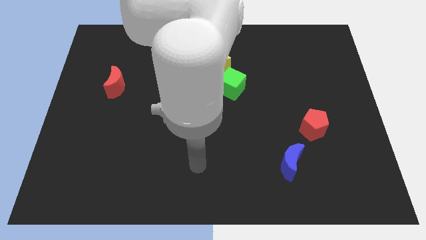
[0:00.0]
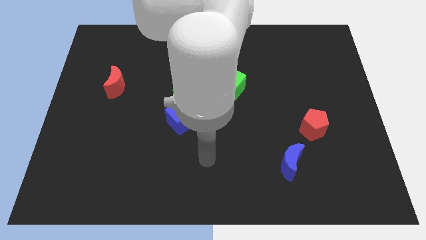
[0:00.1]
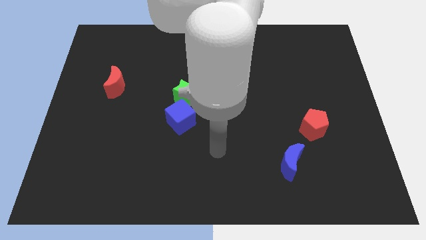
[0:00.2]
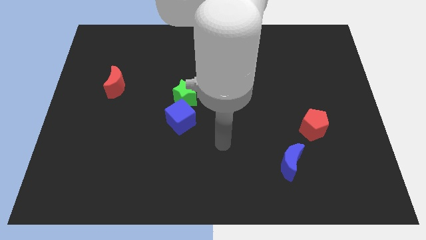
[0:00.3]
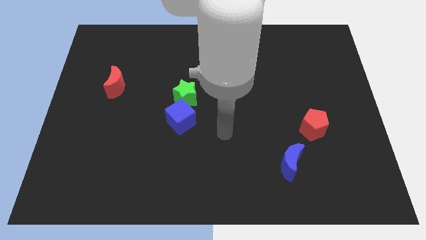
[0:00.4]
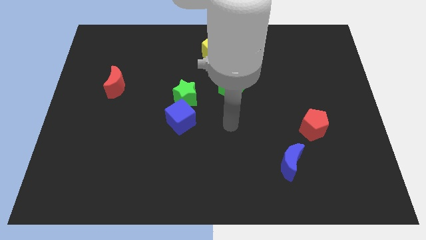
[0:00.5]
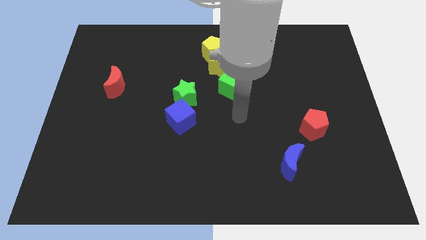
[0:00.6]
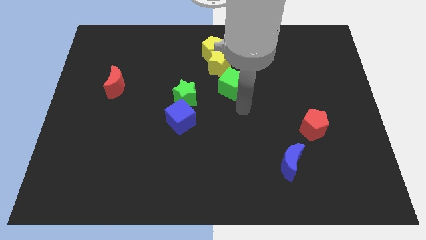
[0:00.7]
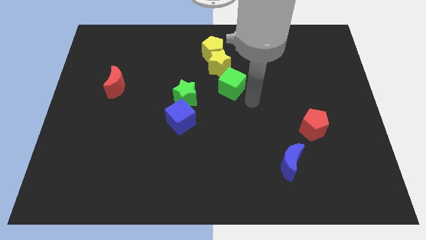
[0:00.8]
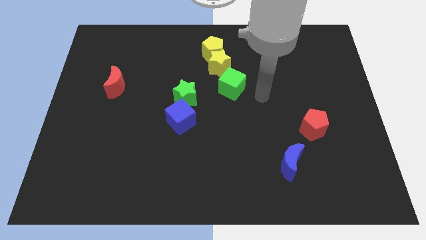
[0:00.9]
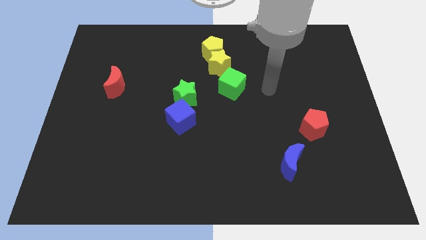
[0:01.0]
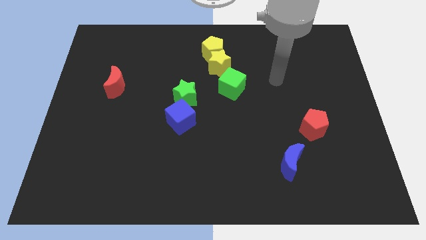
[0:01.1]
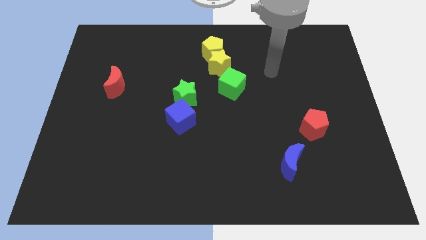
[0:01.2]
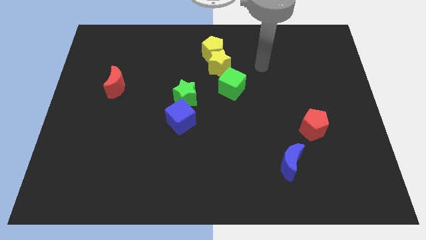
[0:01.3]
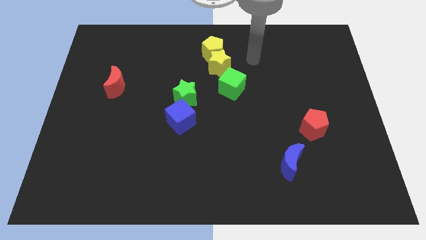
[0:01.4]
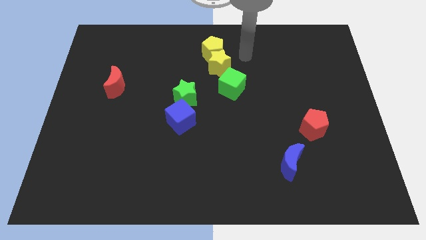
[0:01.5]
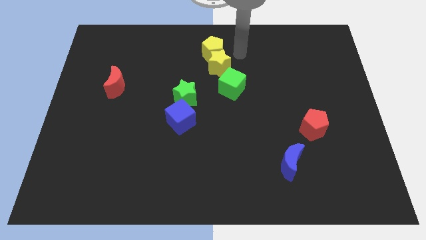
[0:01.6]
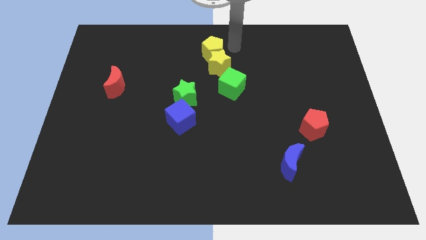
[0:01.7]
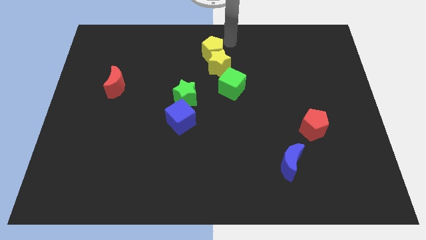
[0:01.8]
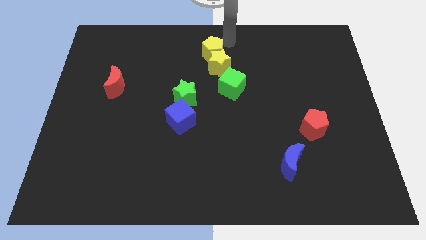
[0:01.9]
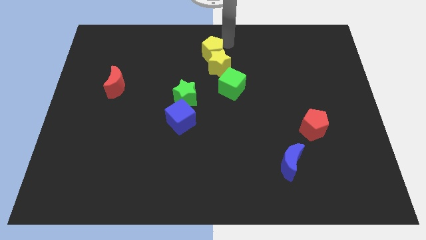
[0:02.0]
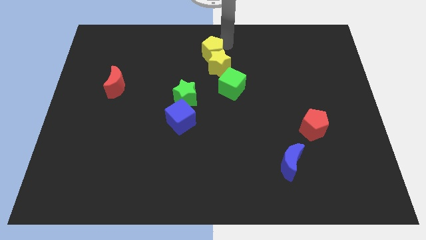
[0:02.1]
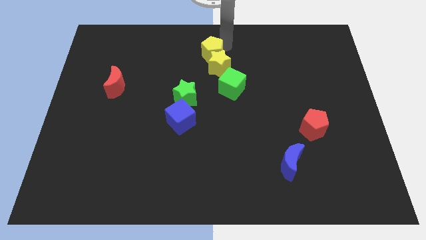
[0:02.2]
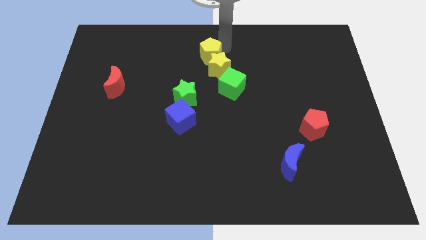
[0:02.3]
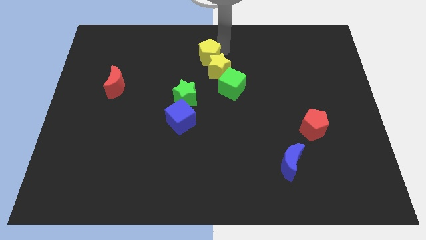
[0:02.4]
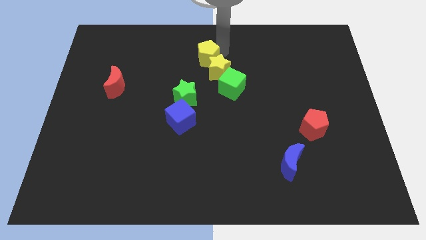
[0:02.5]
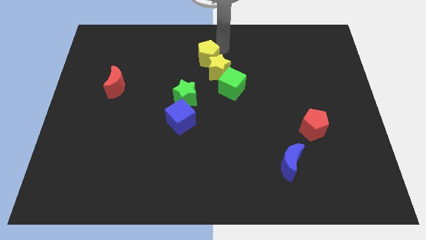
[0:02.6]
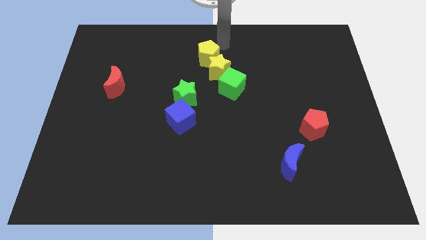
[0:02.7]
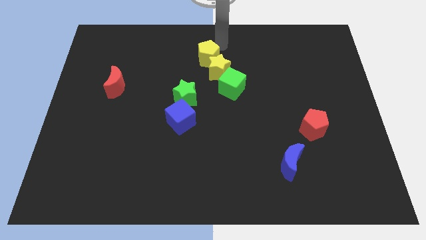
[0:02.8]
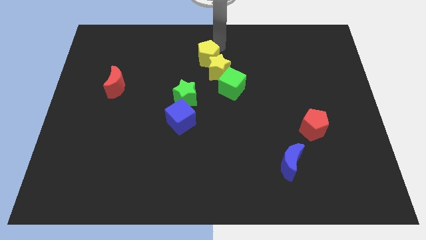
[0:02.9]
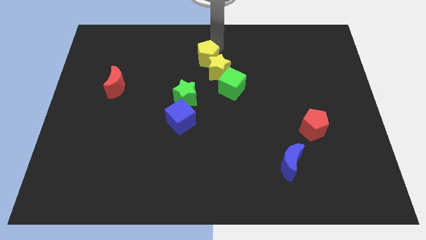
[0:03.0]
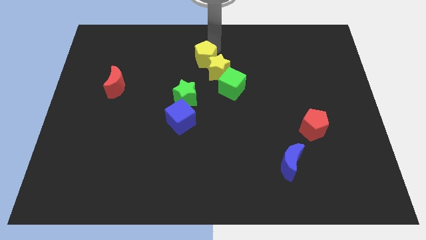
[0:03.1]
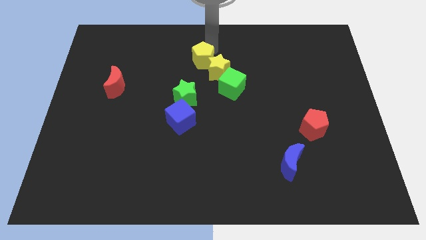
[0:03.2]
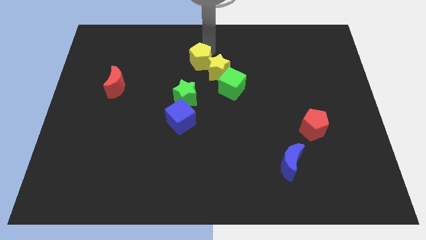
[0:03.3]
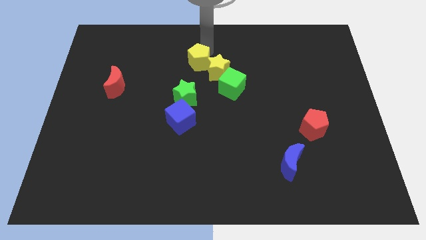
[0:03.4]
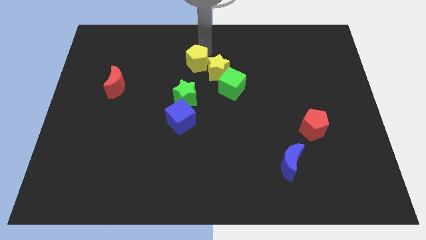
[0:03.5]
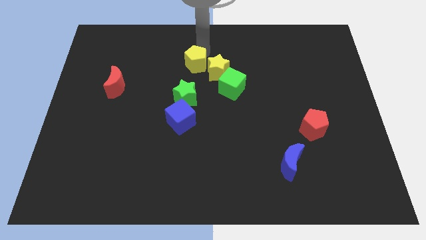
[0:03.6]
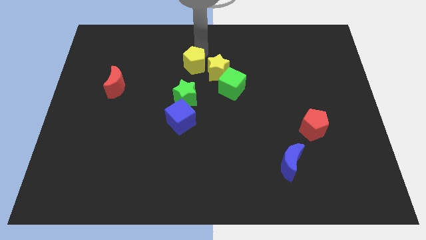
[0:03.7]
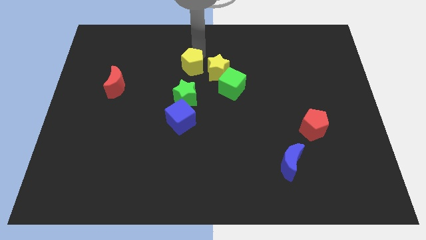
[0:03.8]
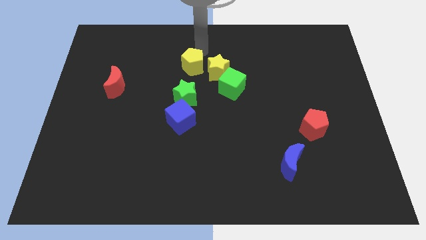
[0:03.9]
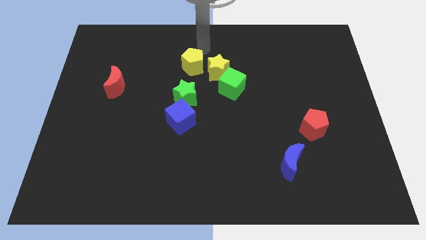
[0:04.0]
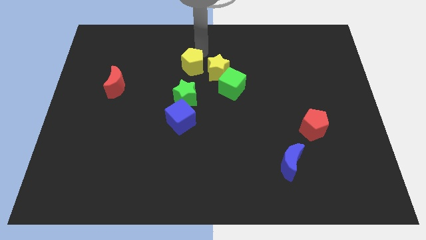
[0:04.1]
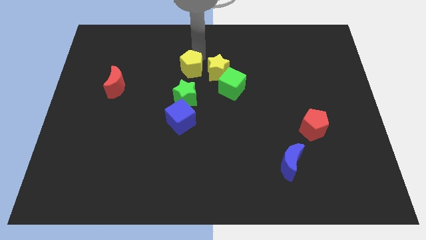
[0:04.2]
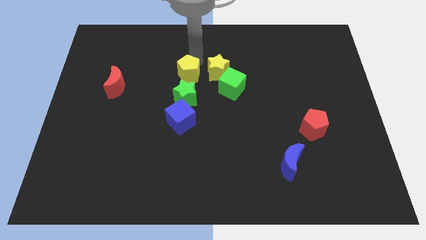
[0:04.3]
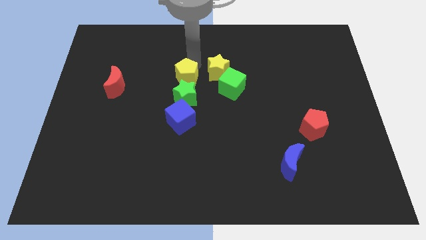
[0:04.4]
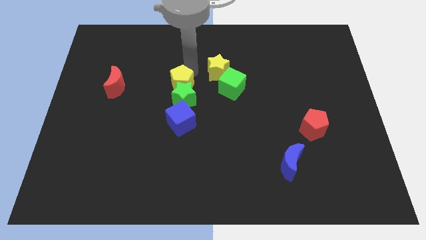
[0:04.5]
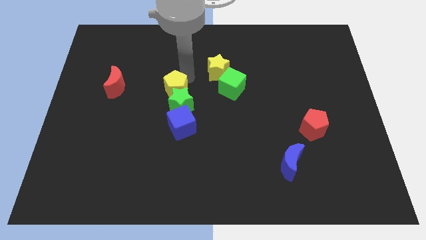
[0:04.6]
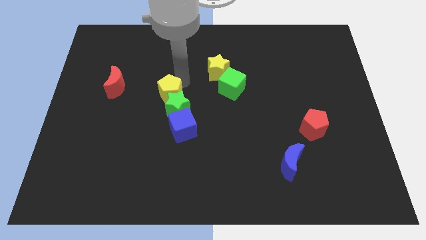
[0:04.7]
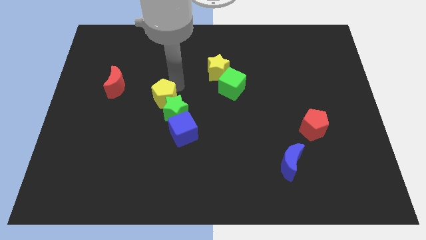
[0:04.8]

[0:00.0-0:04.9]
push the yellow pentagon to the top left side of the blue cube

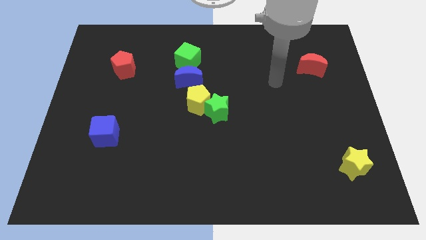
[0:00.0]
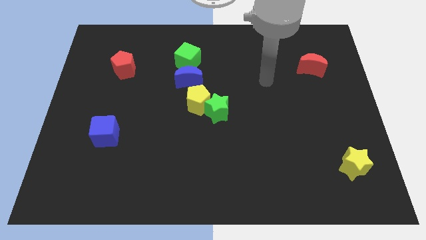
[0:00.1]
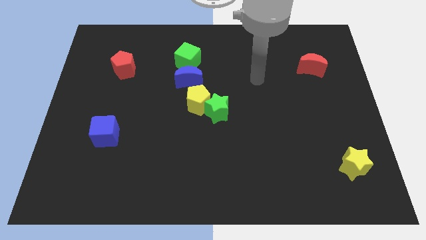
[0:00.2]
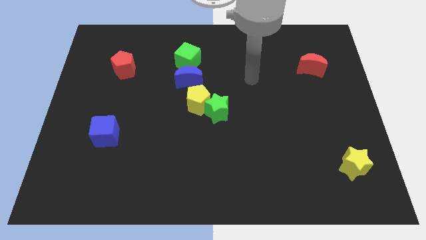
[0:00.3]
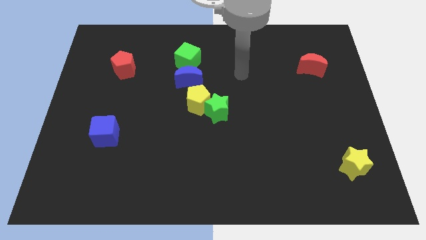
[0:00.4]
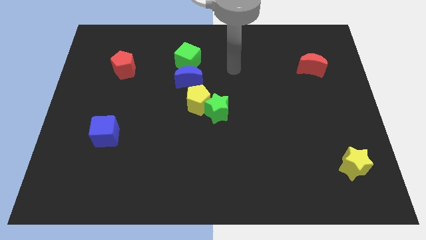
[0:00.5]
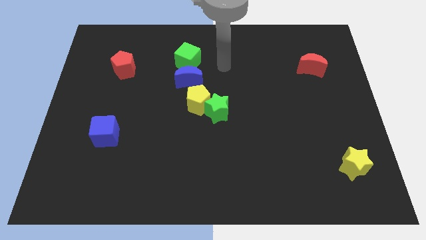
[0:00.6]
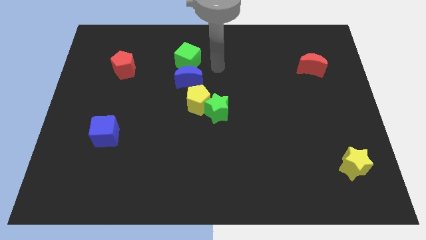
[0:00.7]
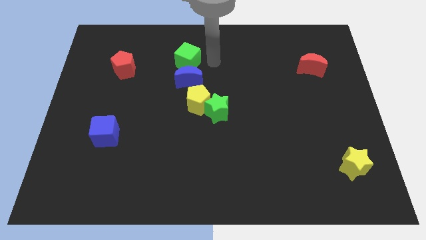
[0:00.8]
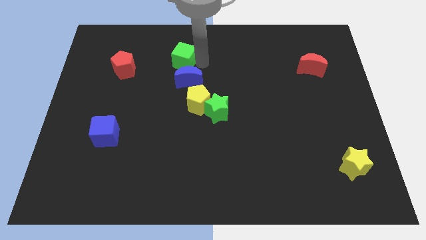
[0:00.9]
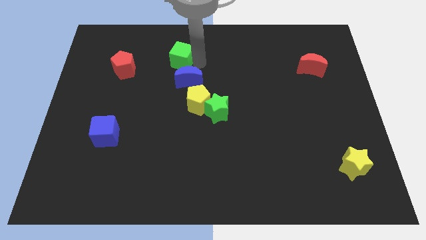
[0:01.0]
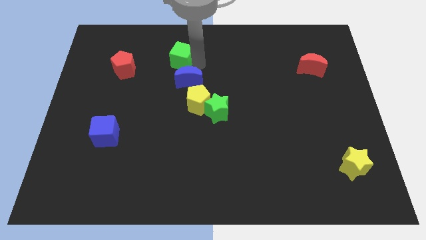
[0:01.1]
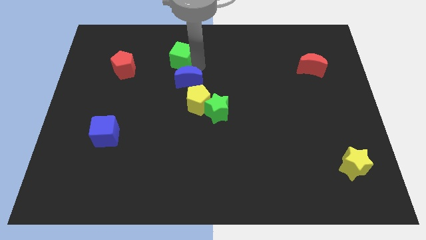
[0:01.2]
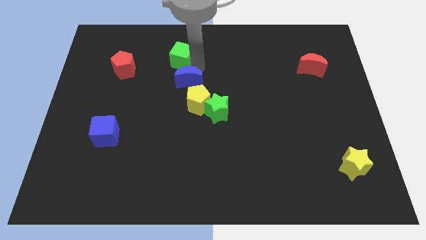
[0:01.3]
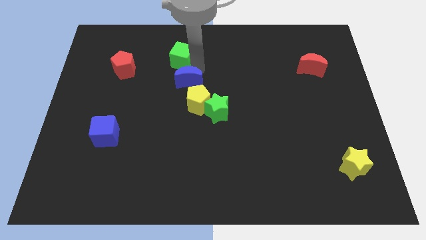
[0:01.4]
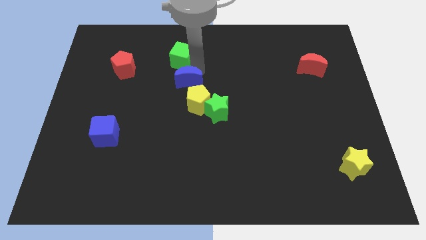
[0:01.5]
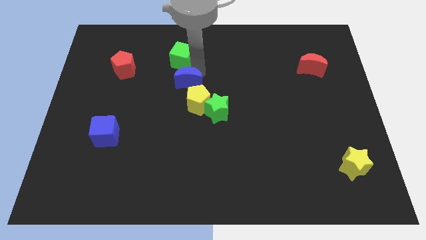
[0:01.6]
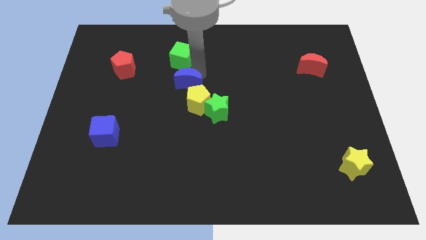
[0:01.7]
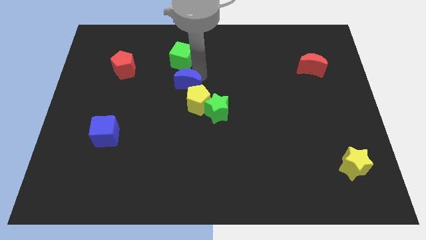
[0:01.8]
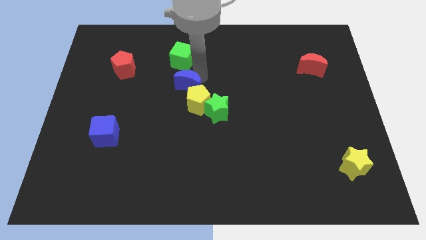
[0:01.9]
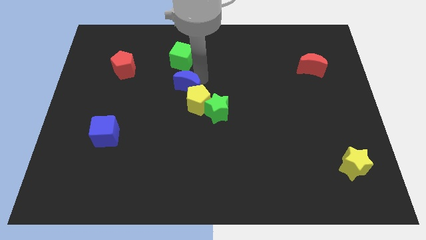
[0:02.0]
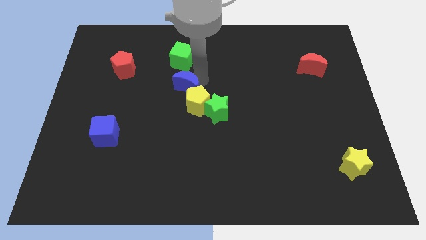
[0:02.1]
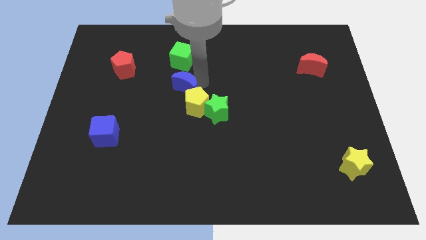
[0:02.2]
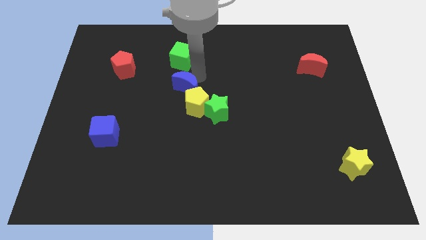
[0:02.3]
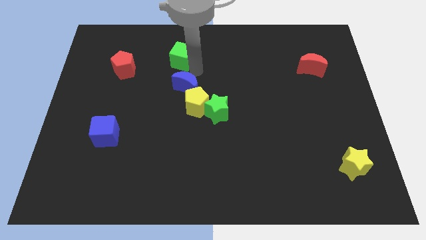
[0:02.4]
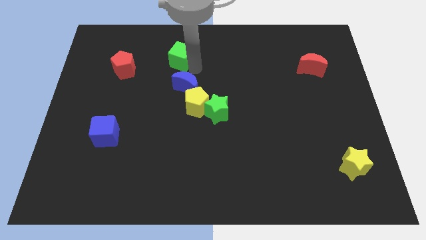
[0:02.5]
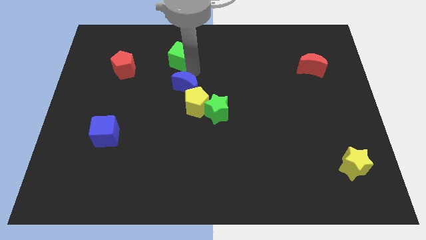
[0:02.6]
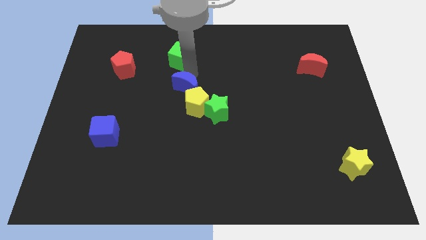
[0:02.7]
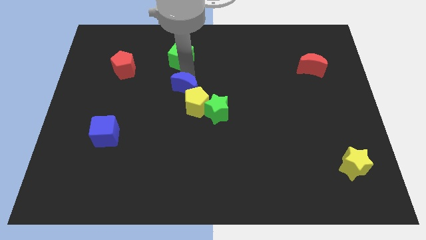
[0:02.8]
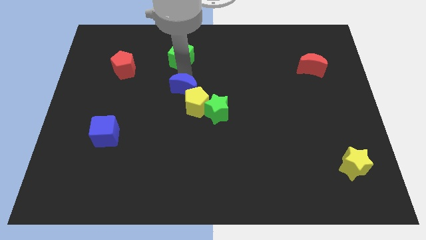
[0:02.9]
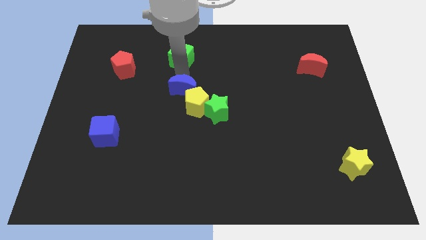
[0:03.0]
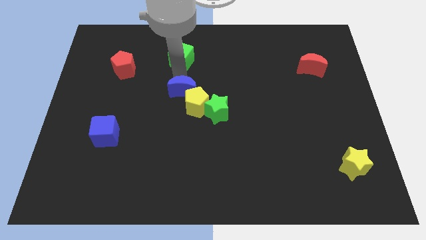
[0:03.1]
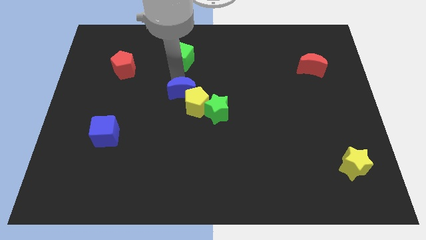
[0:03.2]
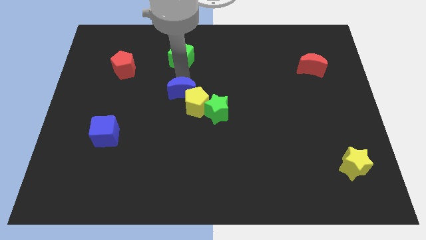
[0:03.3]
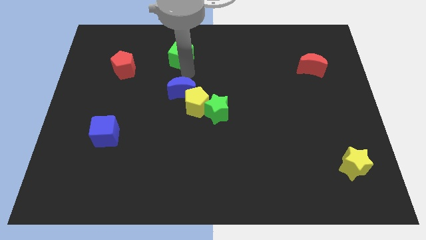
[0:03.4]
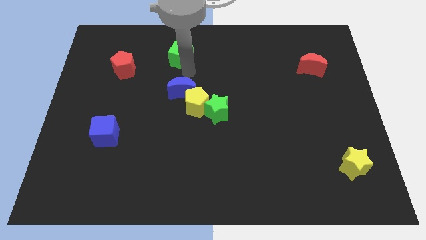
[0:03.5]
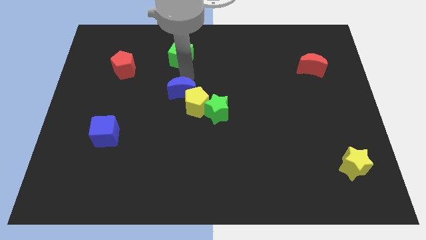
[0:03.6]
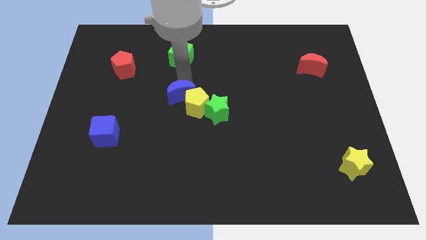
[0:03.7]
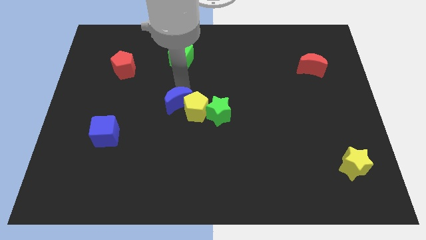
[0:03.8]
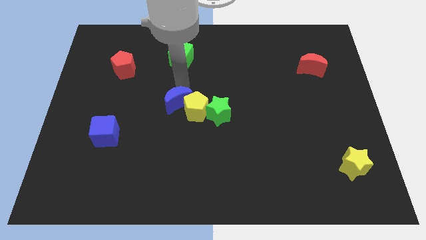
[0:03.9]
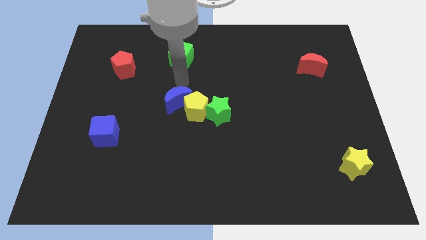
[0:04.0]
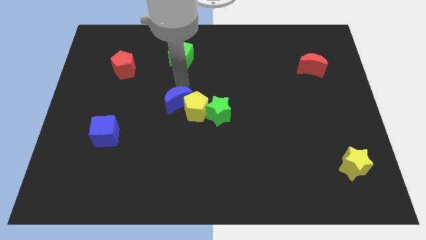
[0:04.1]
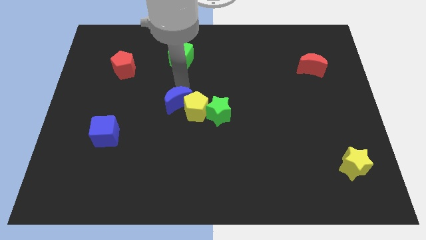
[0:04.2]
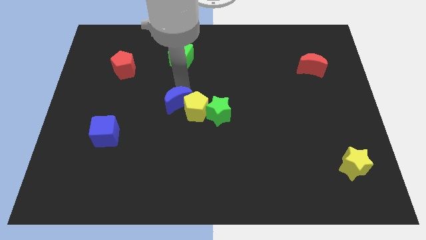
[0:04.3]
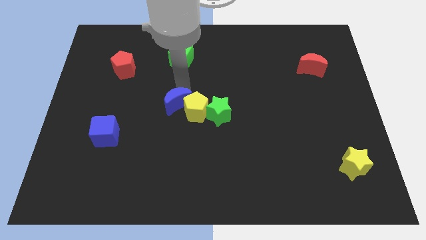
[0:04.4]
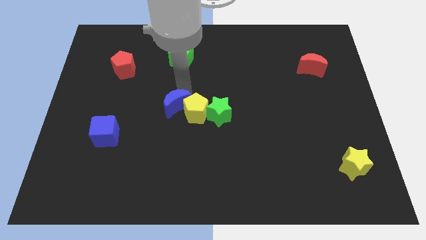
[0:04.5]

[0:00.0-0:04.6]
put the blue moon diagonally down and to the left of the yellow pentagon
